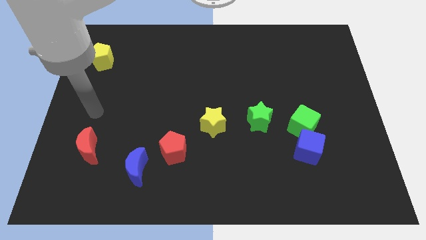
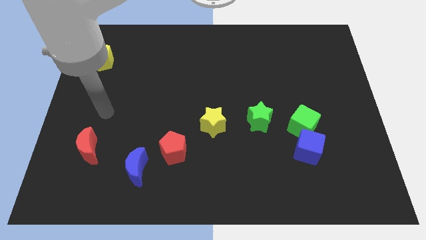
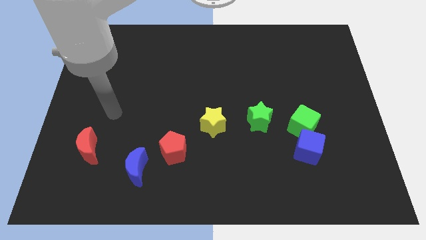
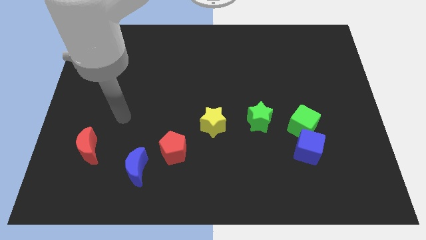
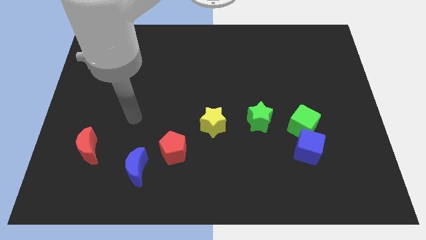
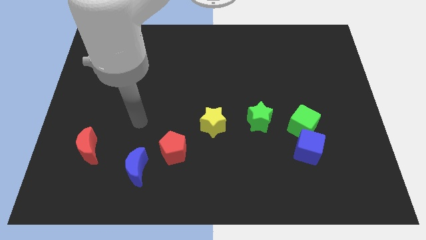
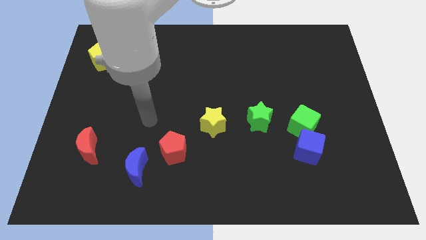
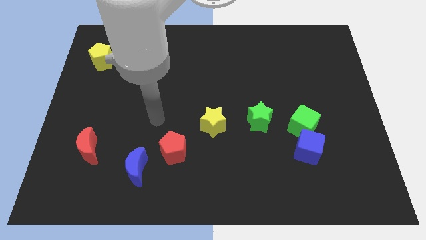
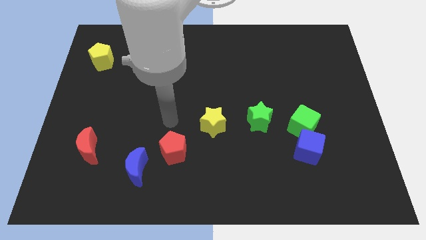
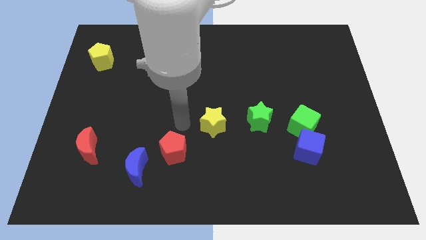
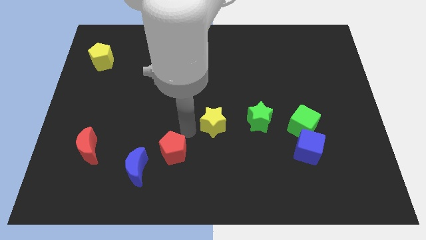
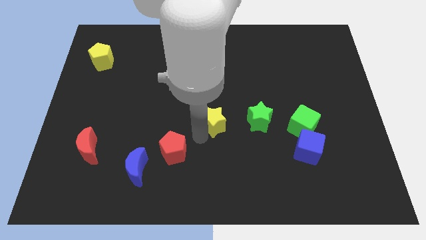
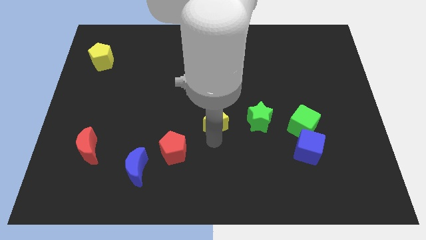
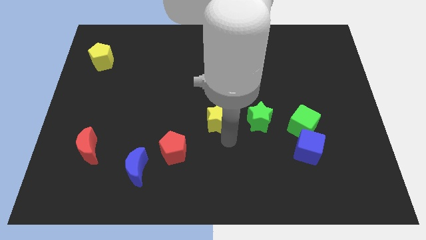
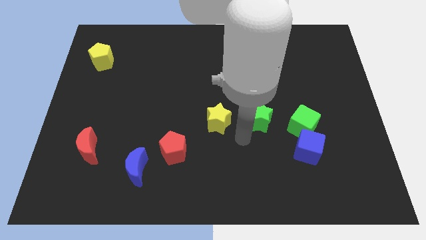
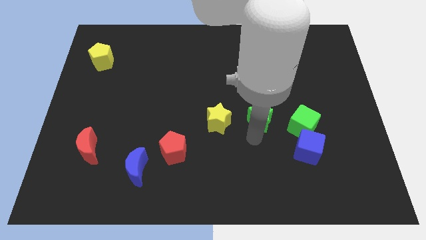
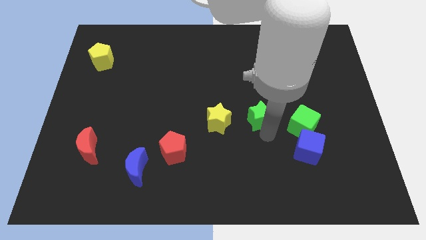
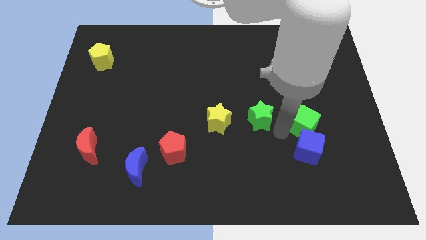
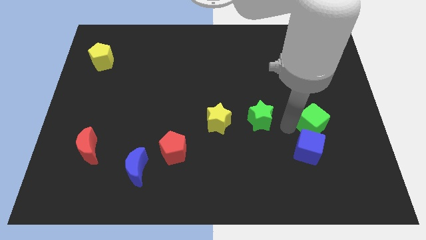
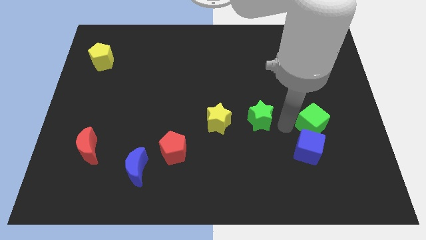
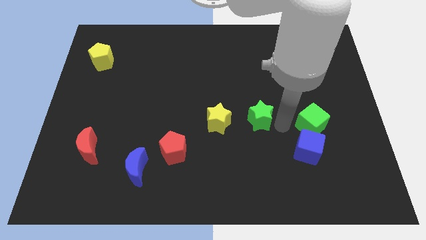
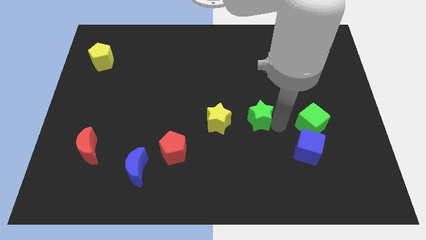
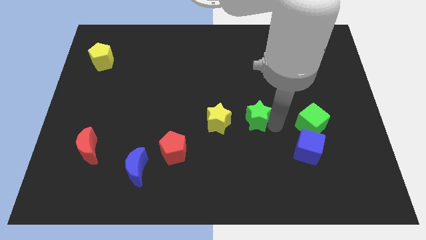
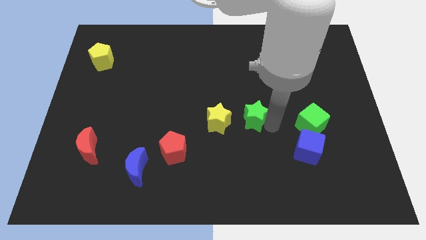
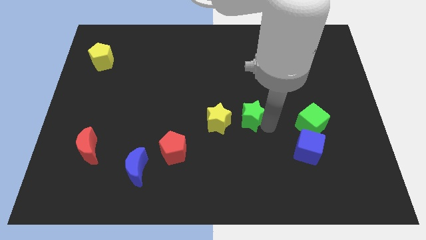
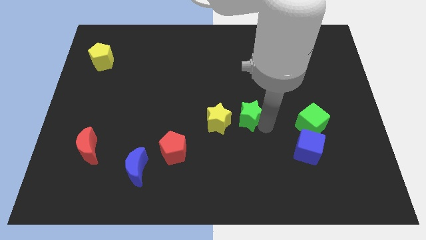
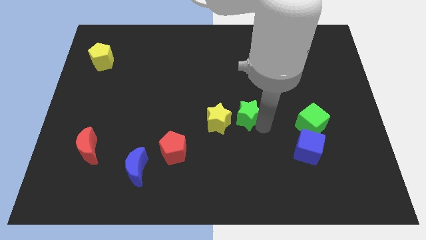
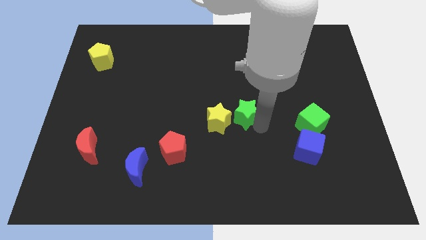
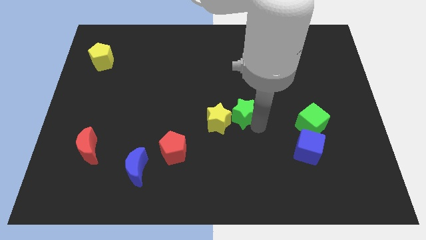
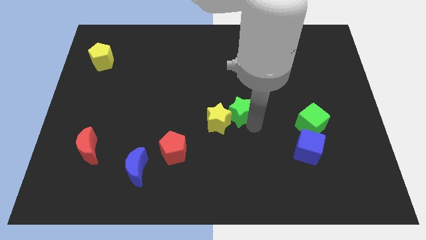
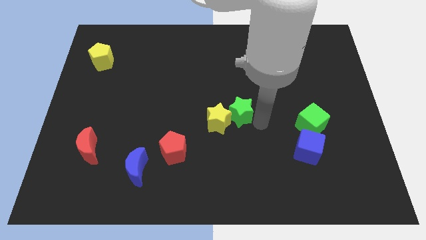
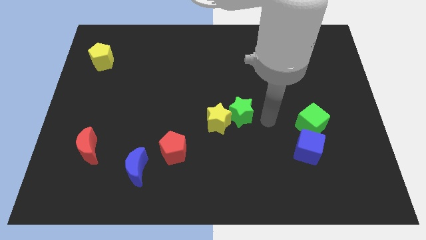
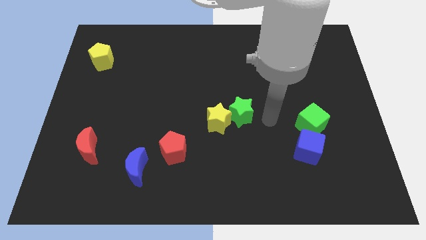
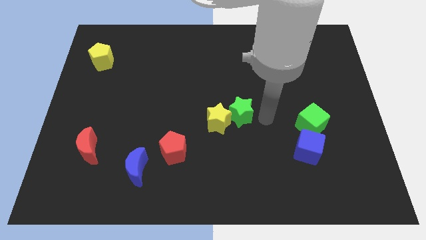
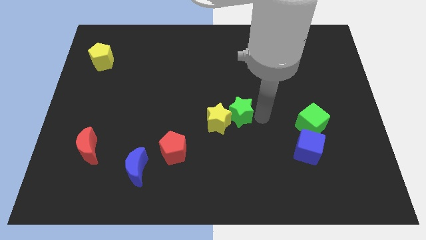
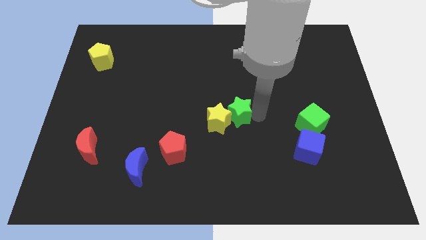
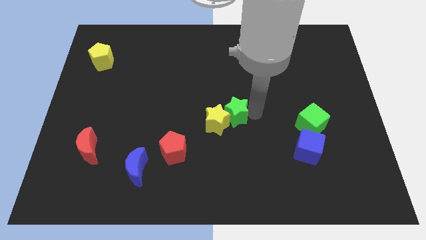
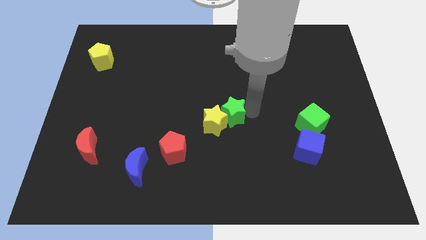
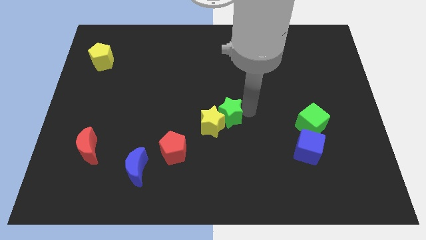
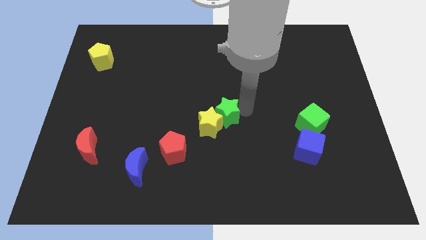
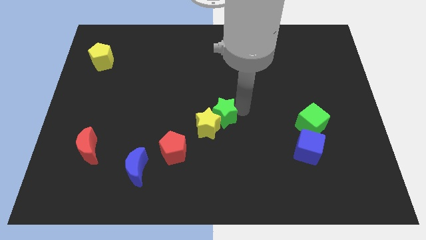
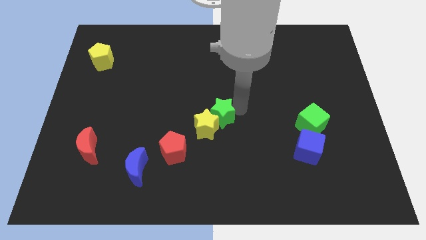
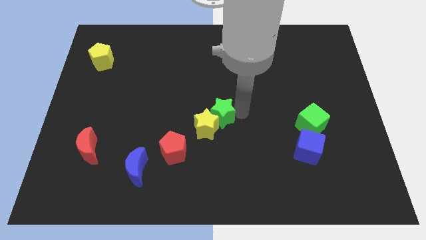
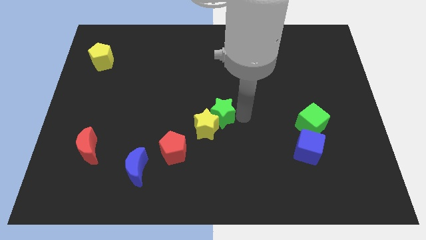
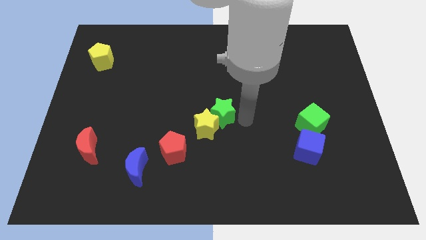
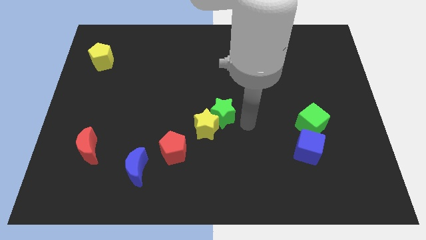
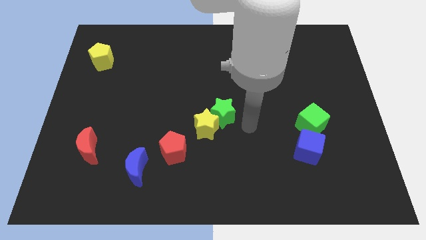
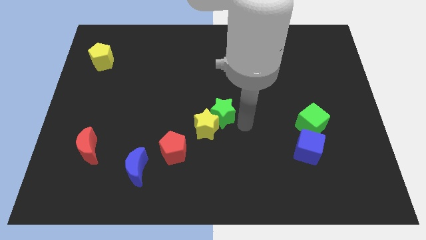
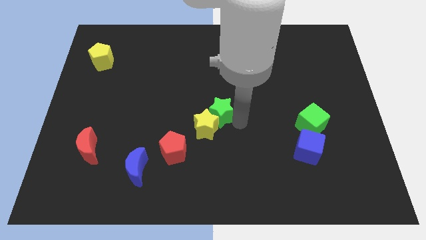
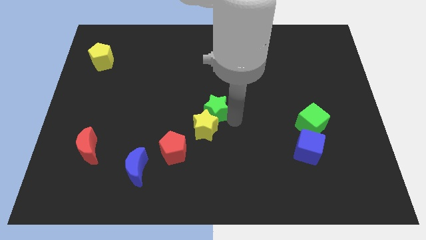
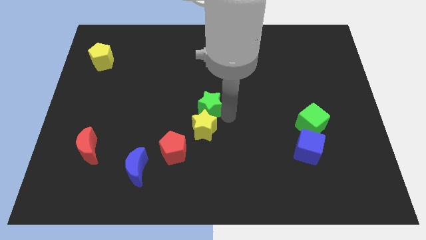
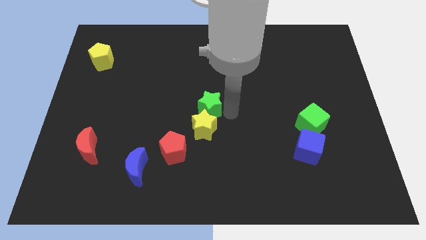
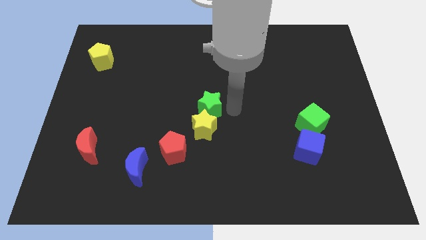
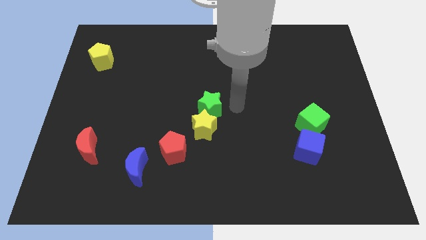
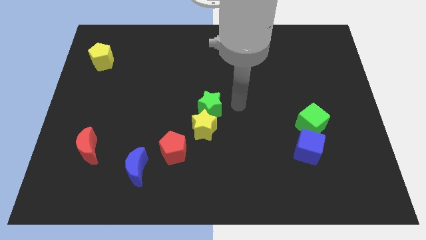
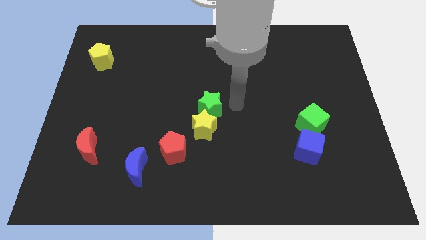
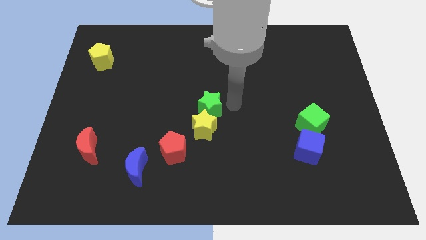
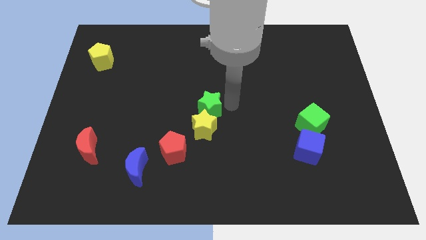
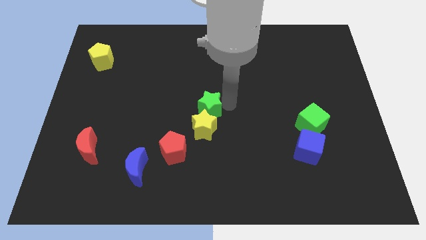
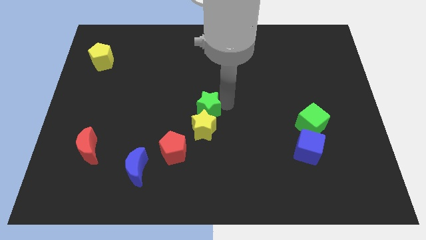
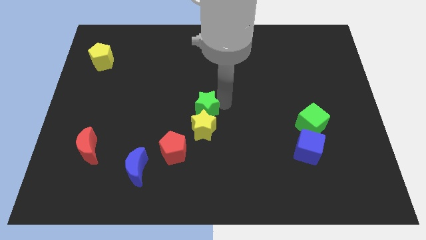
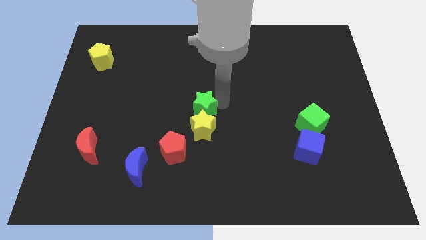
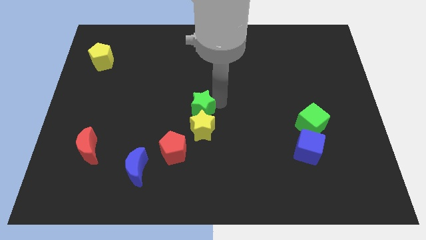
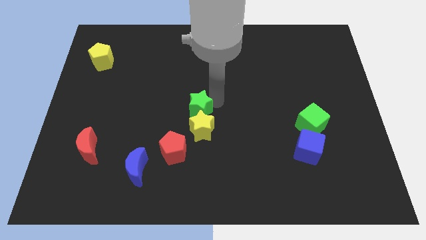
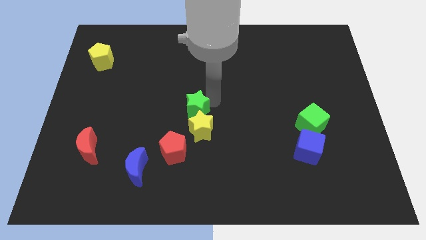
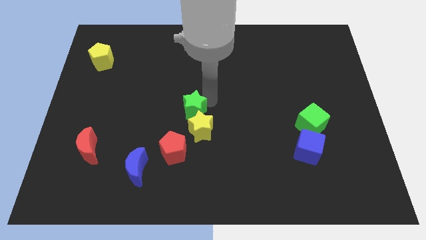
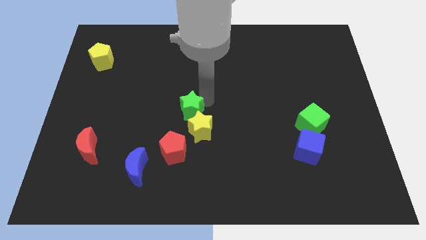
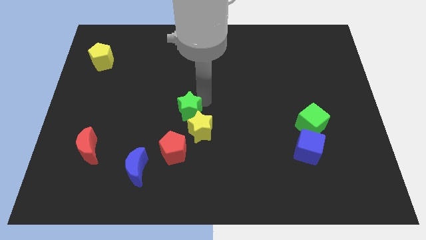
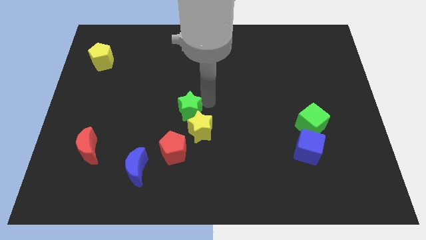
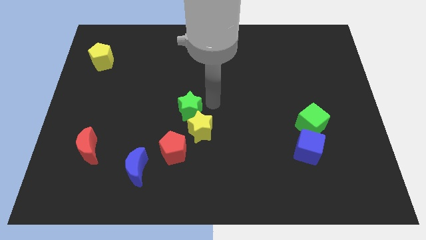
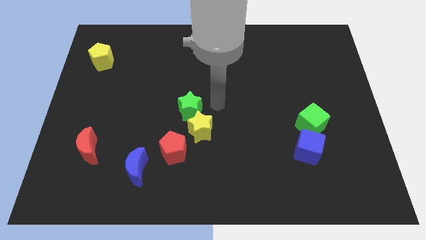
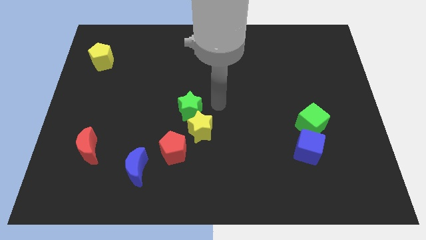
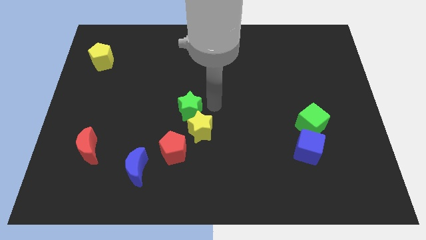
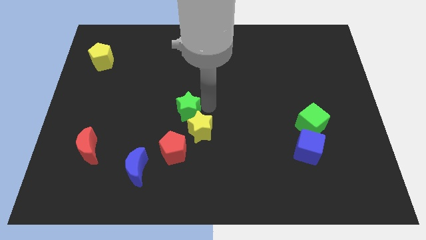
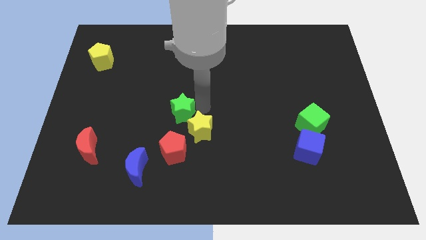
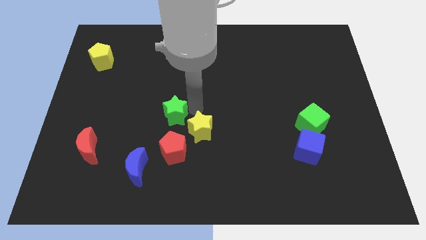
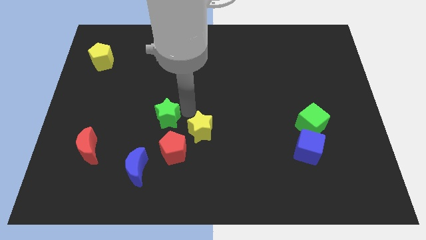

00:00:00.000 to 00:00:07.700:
push the green star left

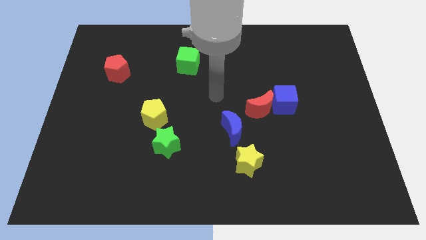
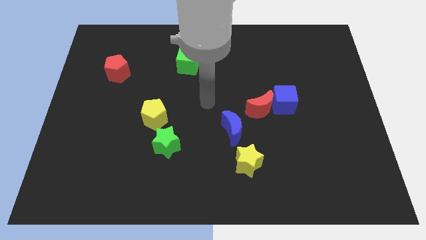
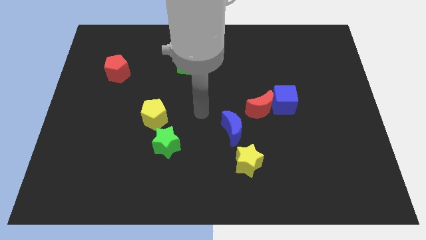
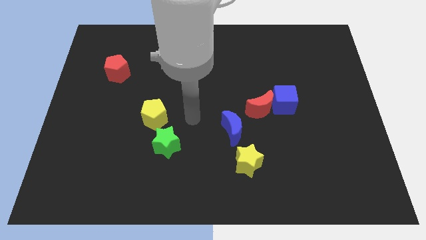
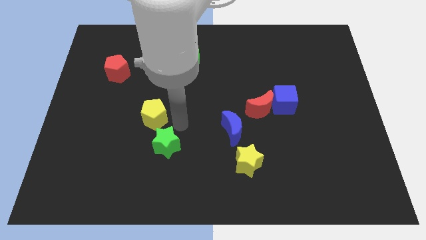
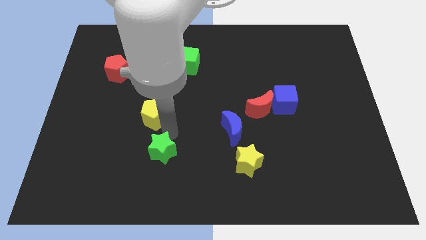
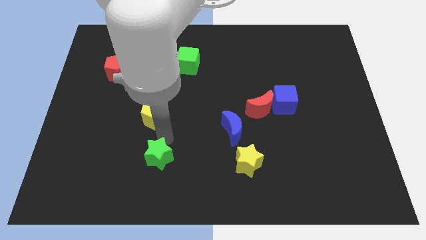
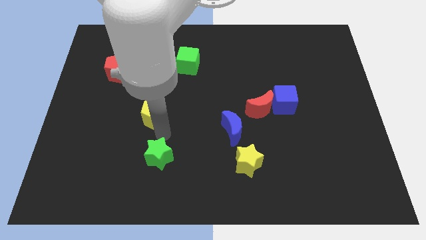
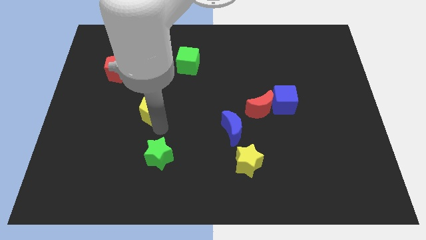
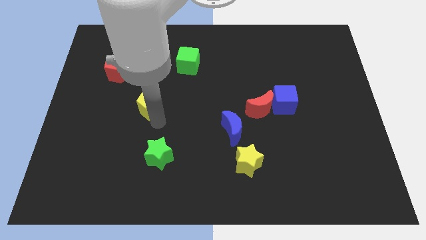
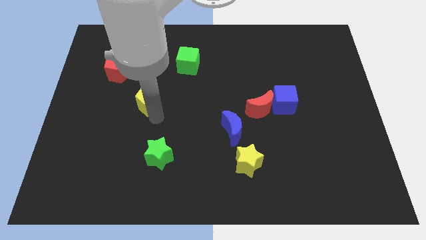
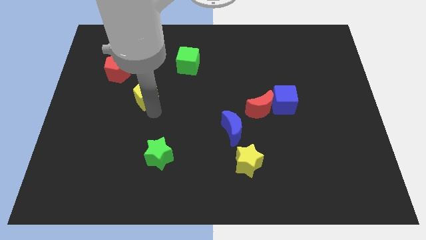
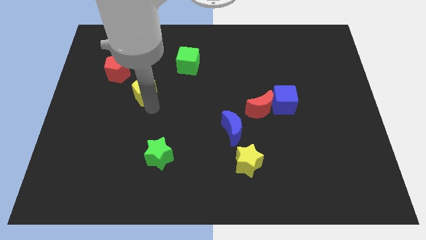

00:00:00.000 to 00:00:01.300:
move the yellow pentagon upwards somewhat
